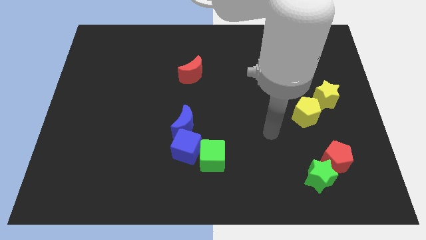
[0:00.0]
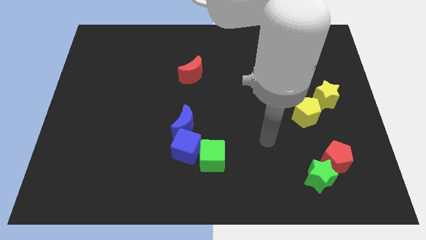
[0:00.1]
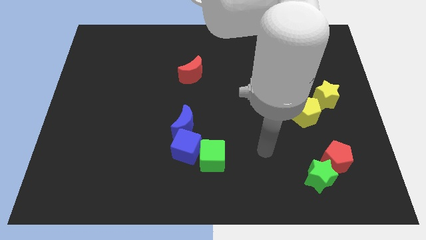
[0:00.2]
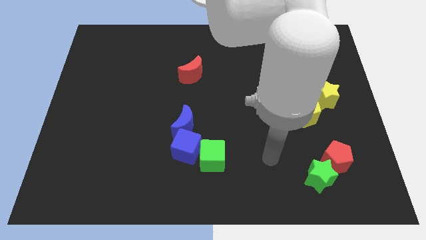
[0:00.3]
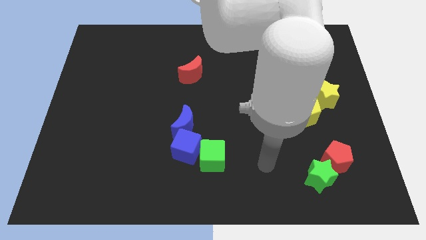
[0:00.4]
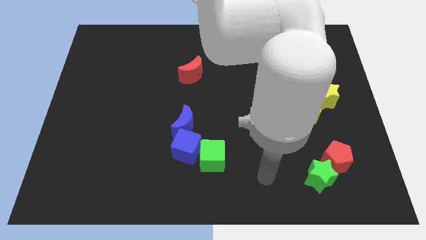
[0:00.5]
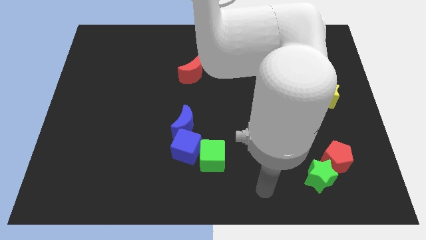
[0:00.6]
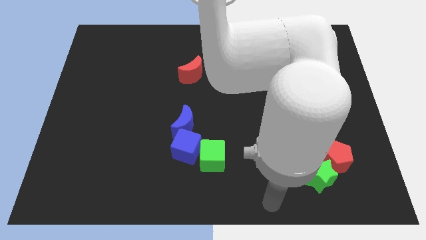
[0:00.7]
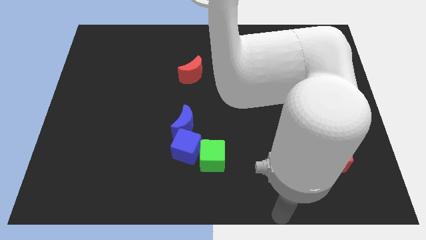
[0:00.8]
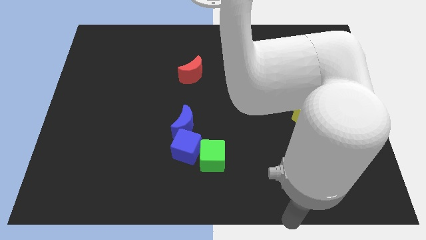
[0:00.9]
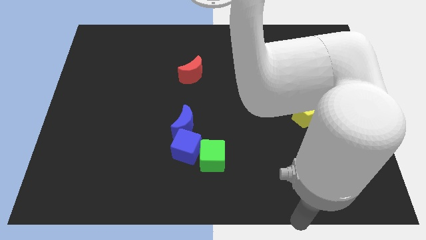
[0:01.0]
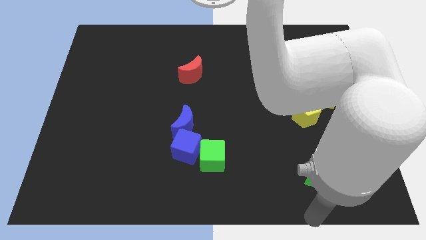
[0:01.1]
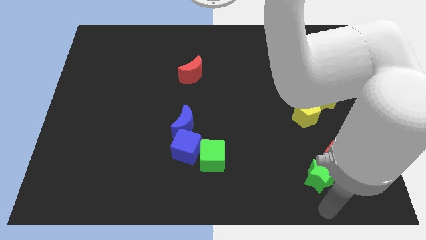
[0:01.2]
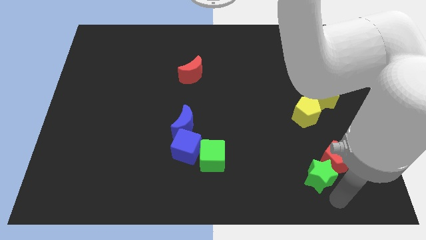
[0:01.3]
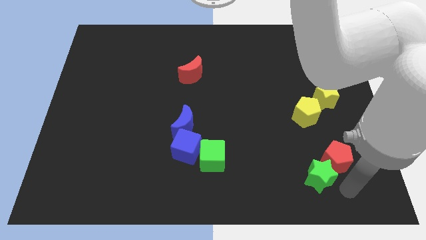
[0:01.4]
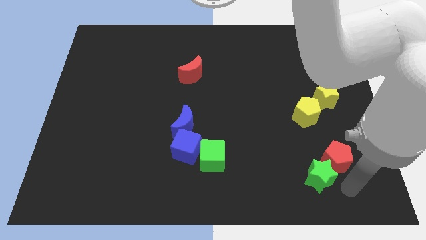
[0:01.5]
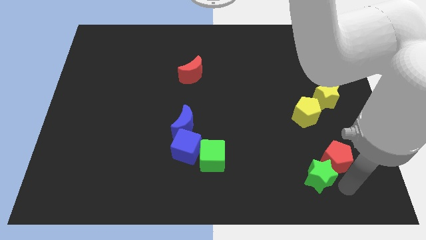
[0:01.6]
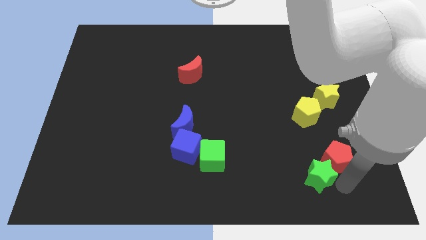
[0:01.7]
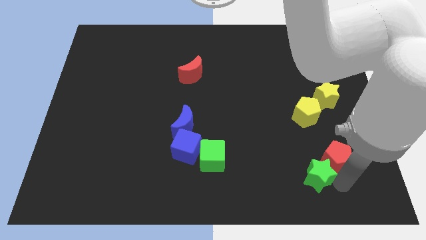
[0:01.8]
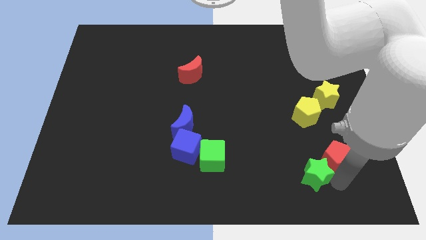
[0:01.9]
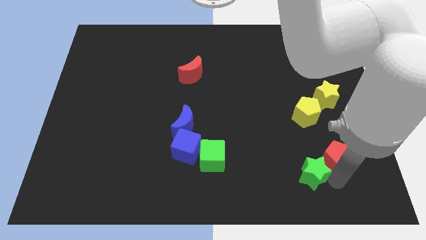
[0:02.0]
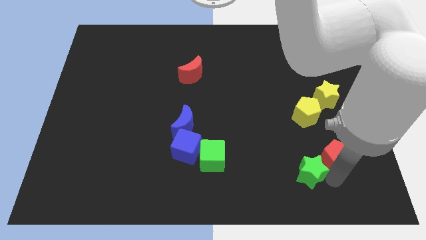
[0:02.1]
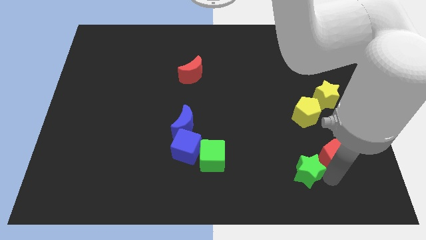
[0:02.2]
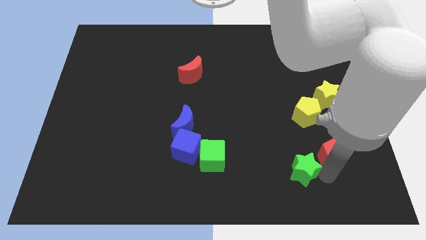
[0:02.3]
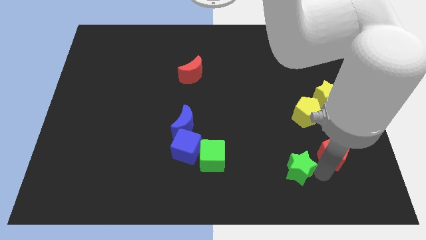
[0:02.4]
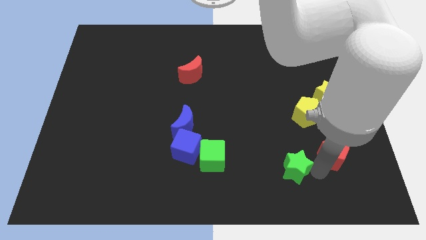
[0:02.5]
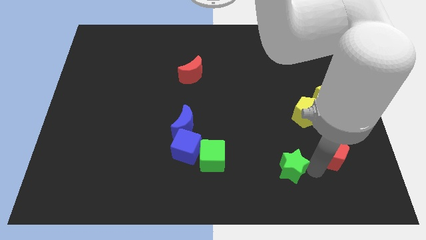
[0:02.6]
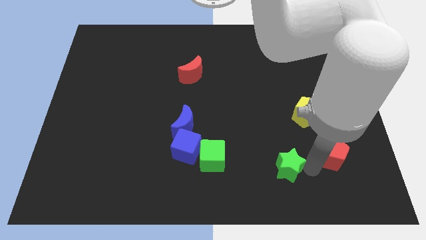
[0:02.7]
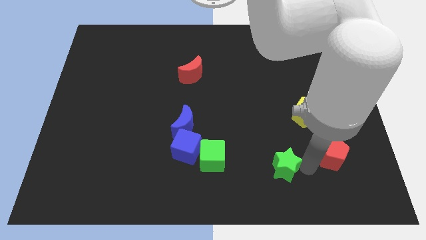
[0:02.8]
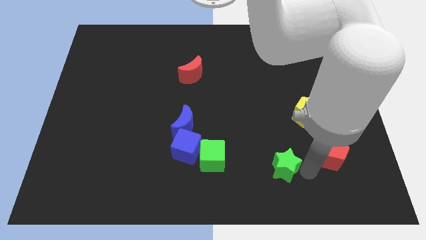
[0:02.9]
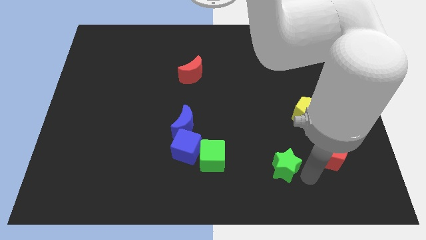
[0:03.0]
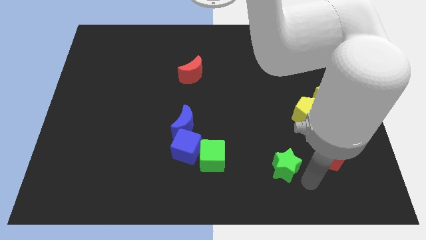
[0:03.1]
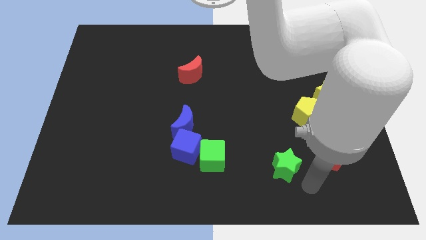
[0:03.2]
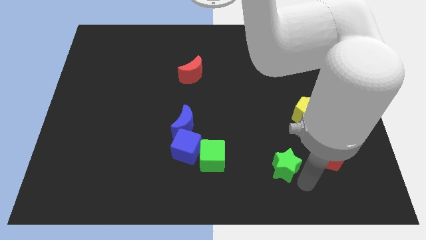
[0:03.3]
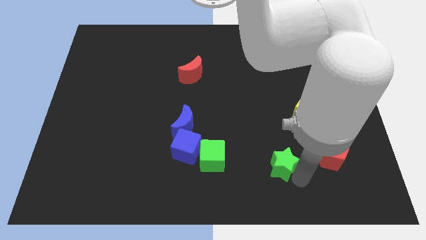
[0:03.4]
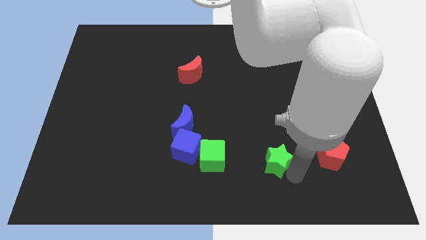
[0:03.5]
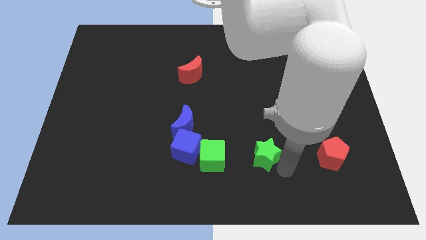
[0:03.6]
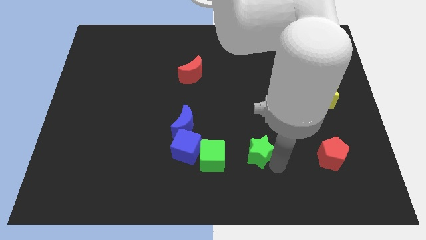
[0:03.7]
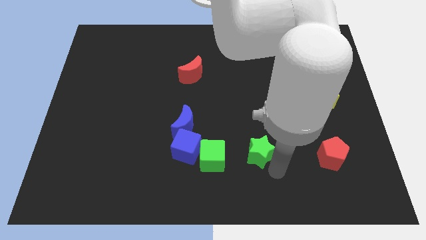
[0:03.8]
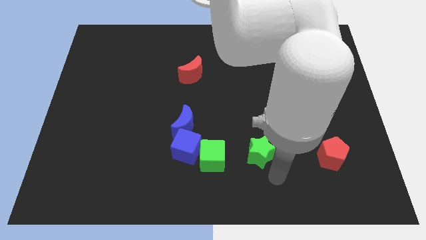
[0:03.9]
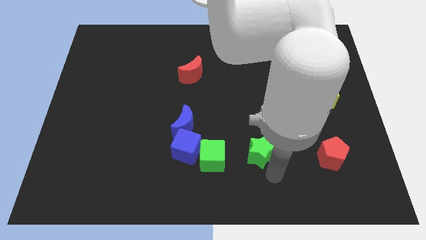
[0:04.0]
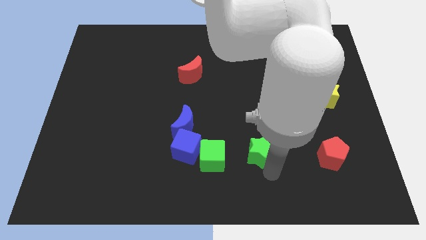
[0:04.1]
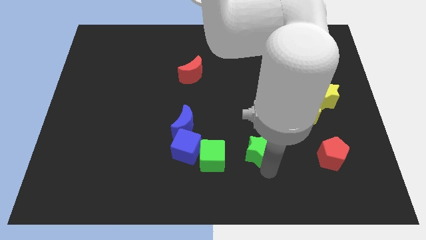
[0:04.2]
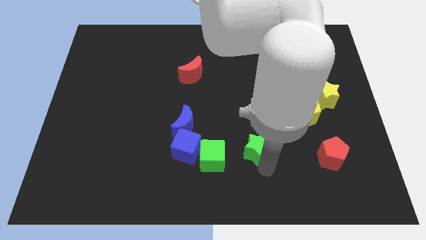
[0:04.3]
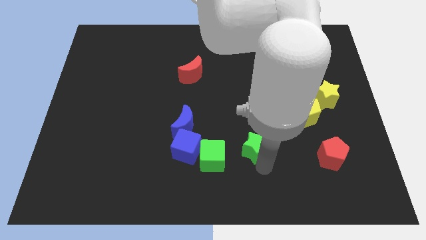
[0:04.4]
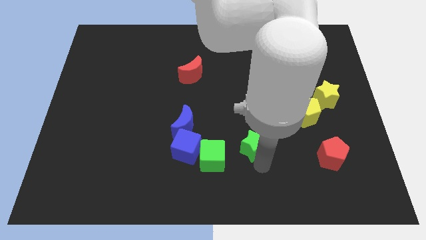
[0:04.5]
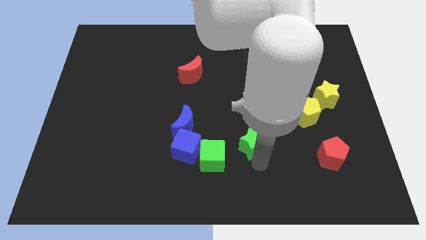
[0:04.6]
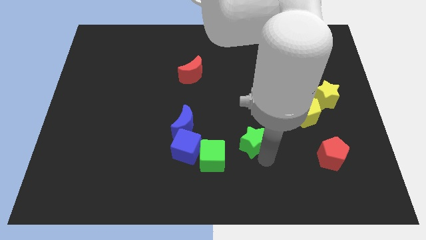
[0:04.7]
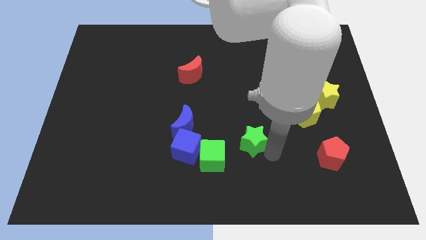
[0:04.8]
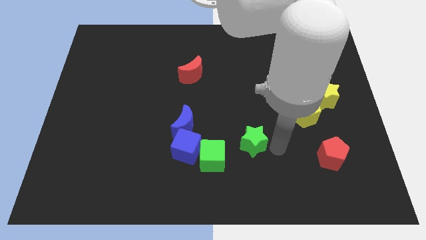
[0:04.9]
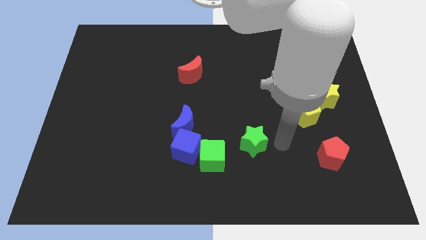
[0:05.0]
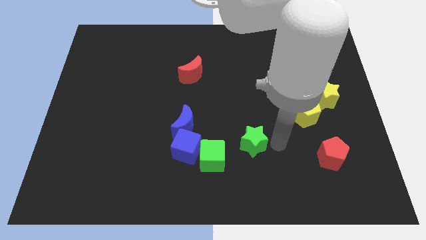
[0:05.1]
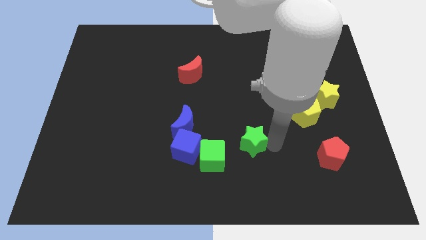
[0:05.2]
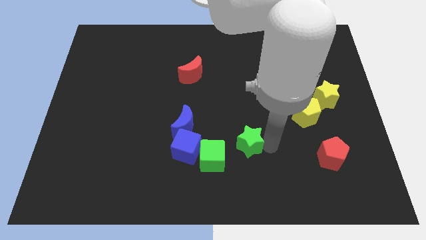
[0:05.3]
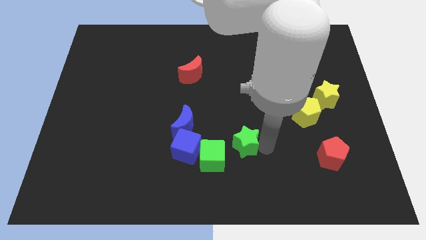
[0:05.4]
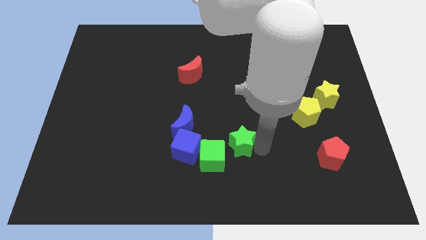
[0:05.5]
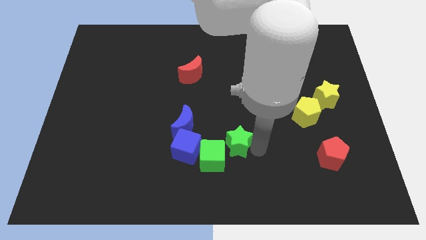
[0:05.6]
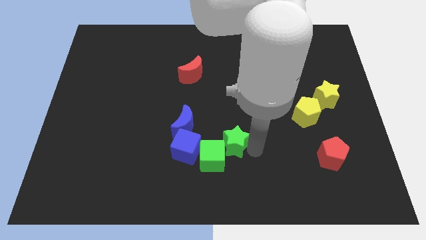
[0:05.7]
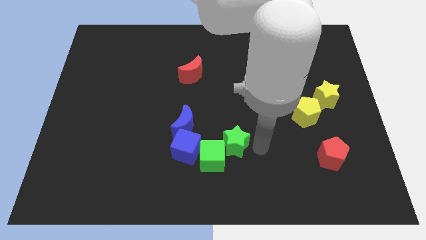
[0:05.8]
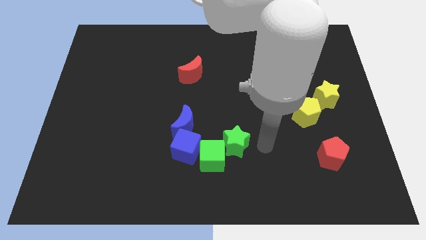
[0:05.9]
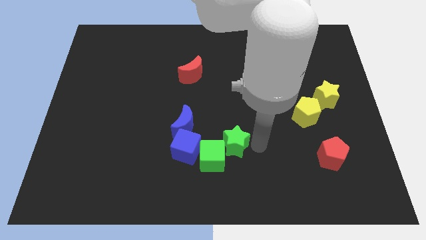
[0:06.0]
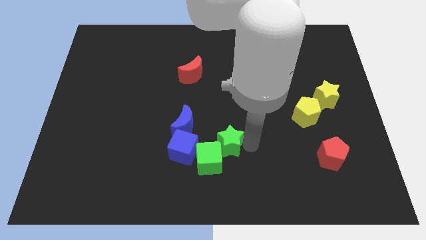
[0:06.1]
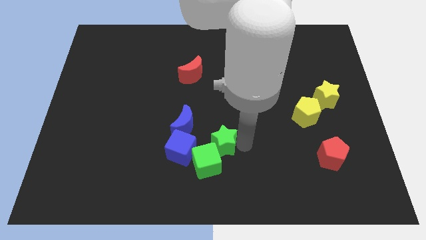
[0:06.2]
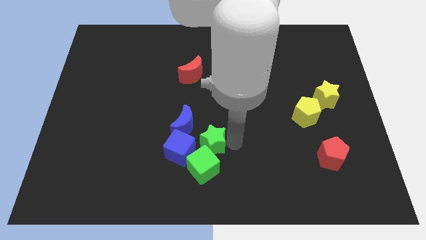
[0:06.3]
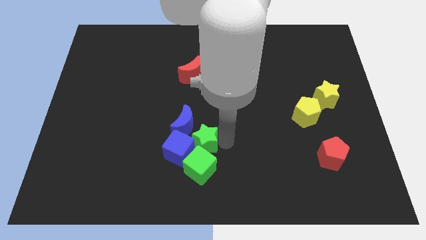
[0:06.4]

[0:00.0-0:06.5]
put the green star towards the blue cube

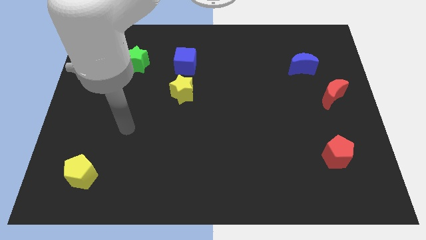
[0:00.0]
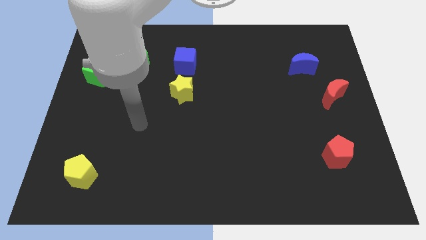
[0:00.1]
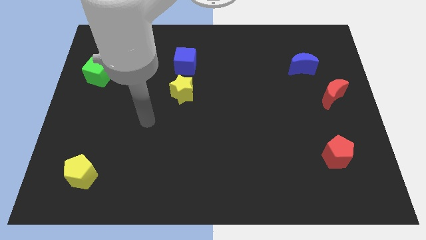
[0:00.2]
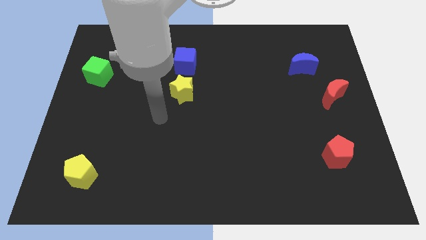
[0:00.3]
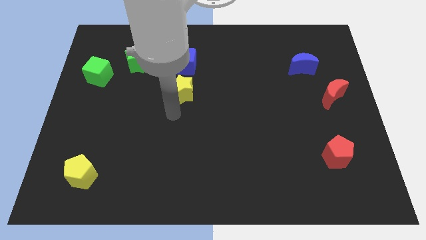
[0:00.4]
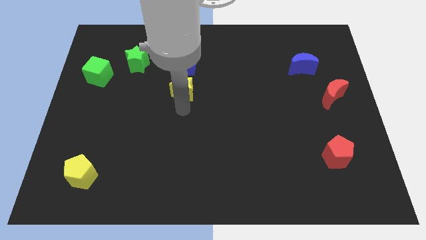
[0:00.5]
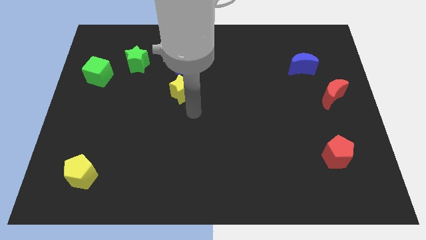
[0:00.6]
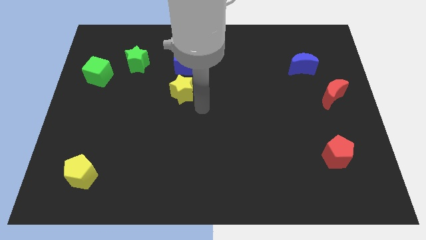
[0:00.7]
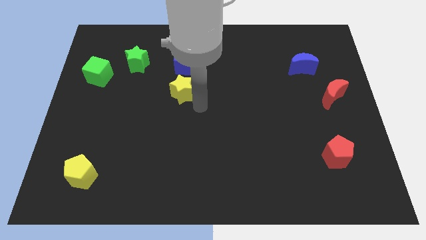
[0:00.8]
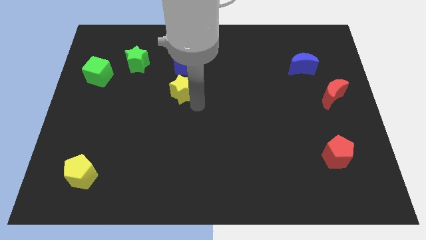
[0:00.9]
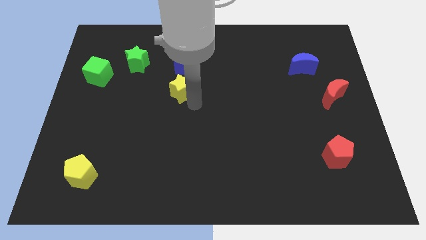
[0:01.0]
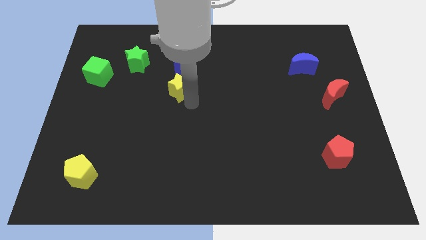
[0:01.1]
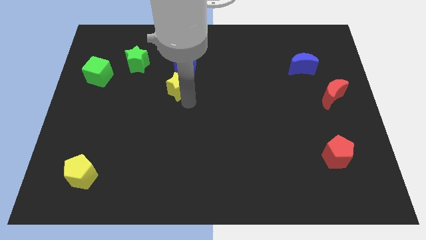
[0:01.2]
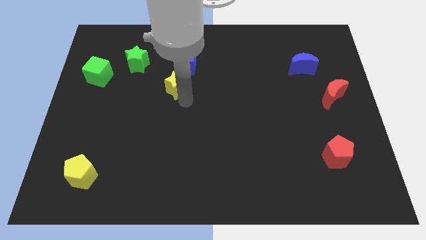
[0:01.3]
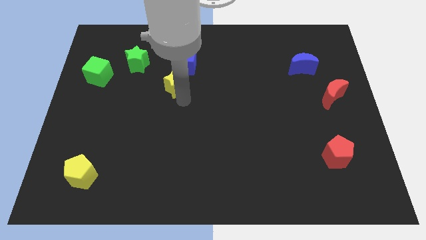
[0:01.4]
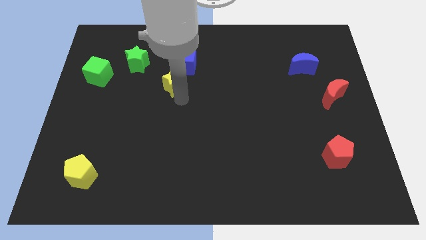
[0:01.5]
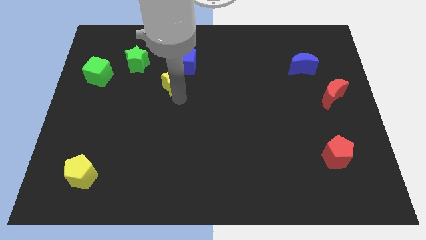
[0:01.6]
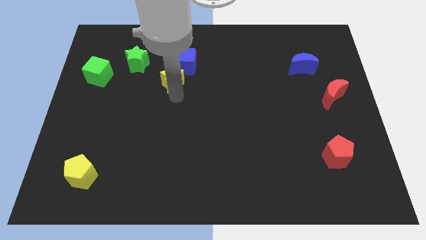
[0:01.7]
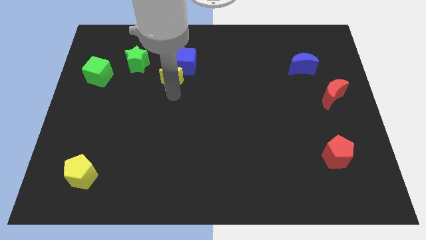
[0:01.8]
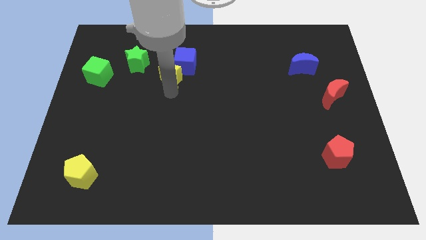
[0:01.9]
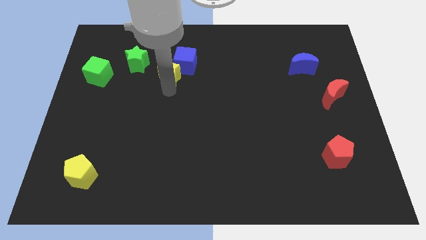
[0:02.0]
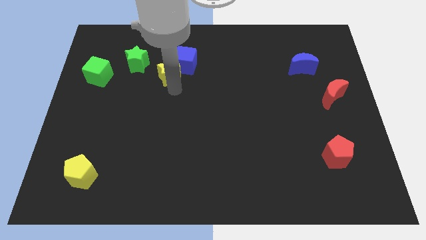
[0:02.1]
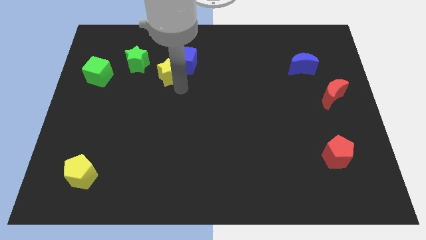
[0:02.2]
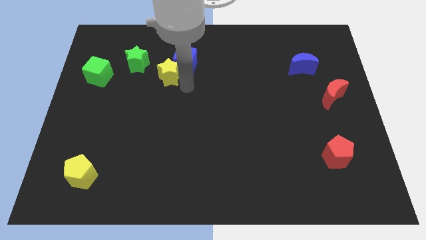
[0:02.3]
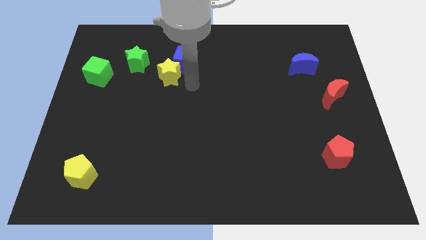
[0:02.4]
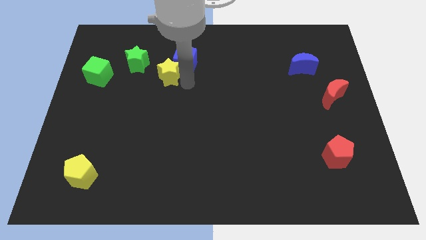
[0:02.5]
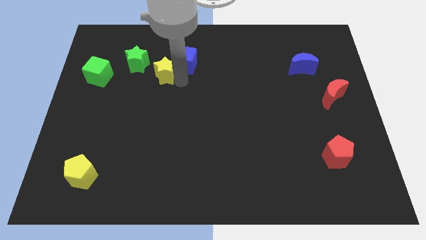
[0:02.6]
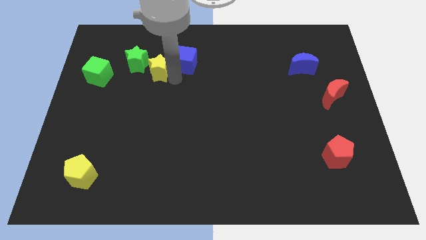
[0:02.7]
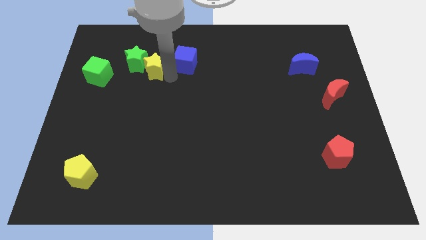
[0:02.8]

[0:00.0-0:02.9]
push the yellow star to the green star
